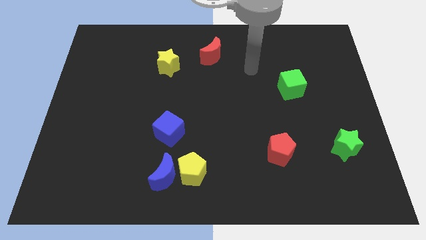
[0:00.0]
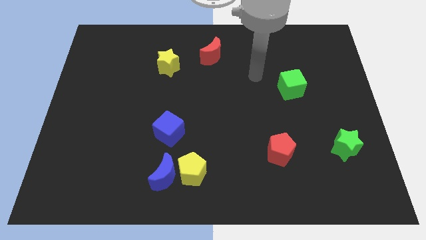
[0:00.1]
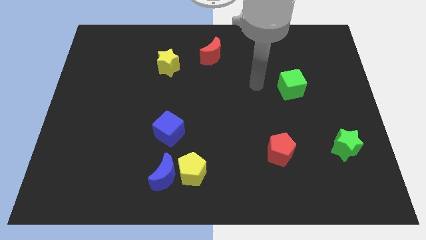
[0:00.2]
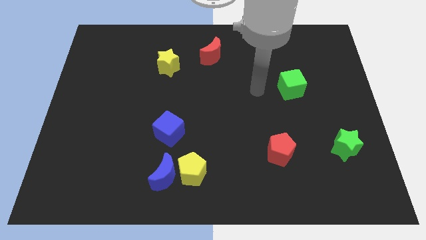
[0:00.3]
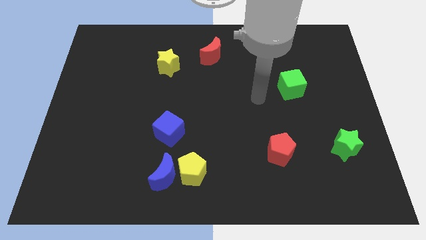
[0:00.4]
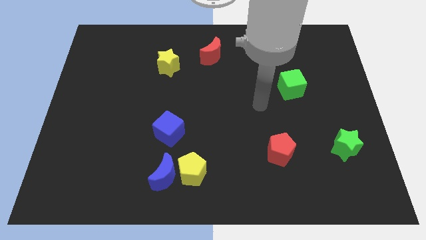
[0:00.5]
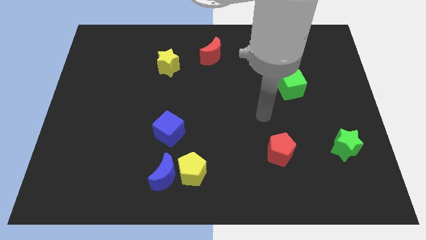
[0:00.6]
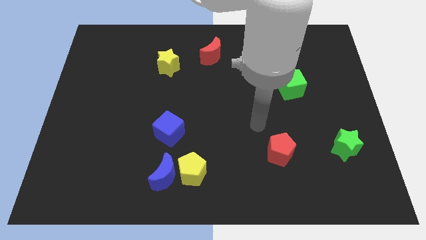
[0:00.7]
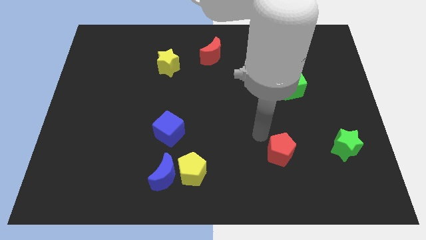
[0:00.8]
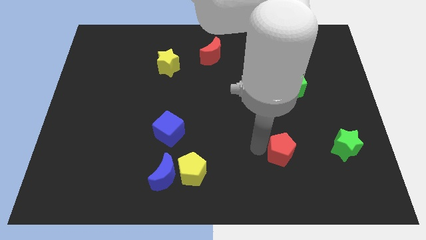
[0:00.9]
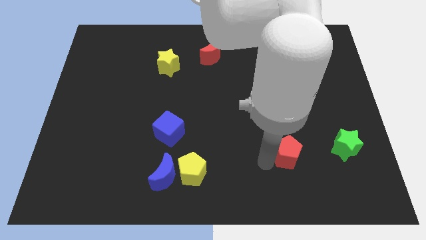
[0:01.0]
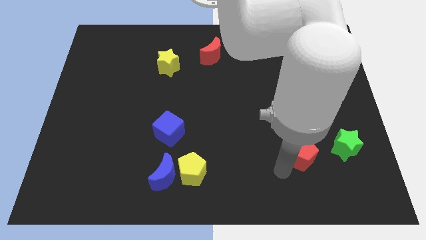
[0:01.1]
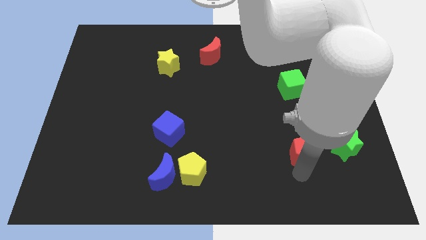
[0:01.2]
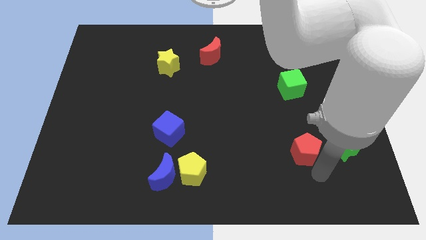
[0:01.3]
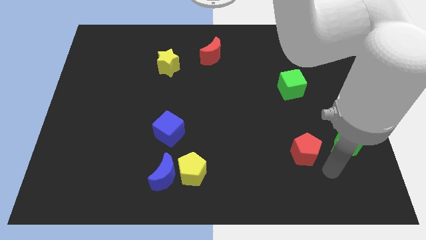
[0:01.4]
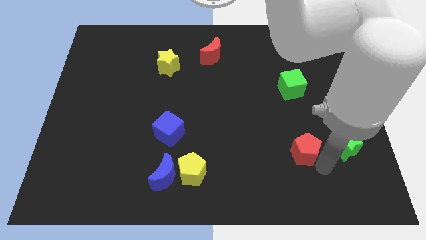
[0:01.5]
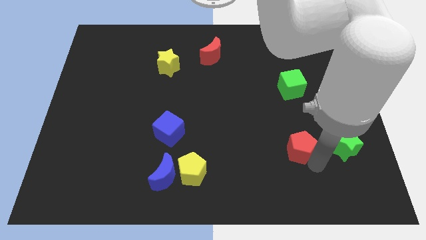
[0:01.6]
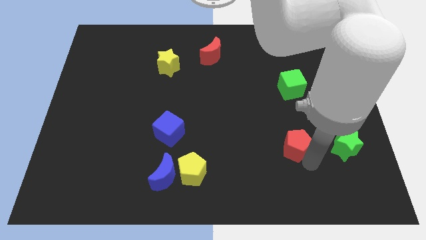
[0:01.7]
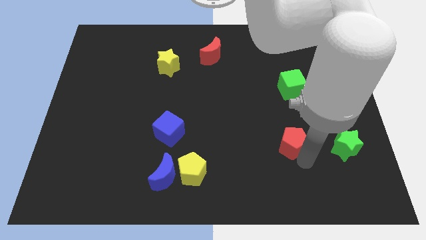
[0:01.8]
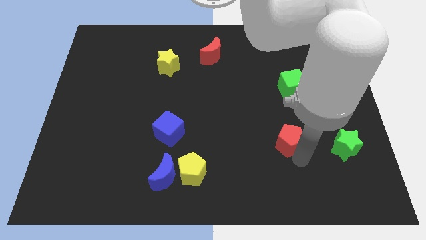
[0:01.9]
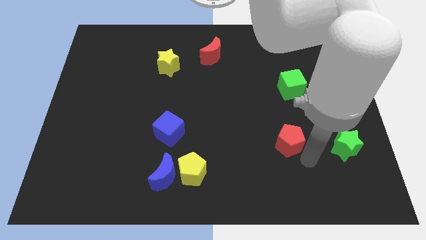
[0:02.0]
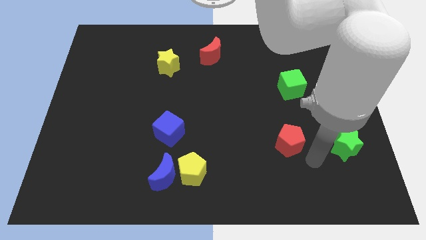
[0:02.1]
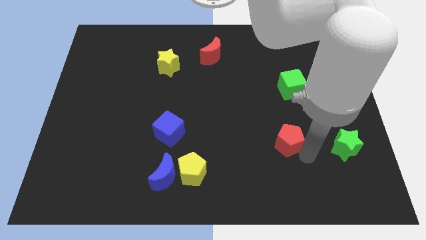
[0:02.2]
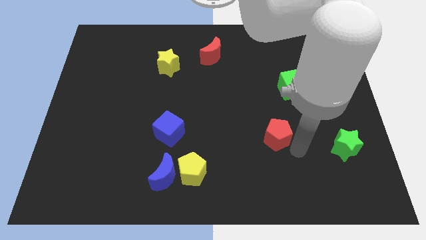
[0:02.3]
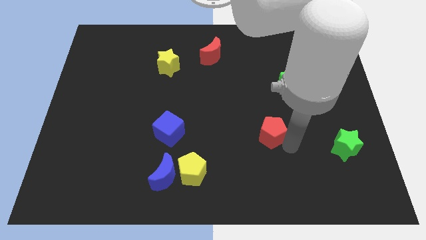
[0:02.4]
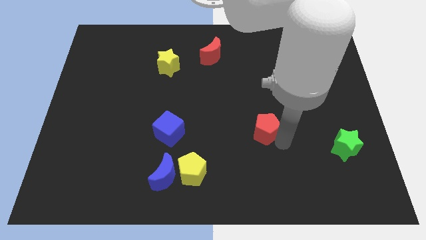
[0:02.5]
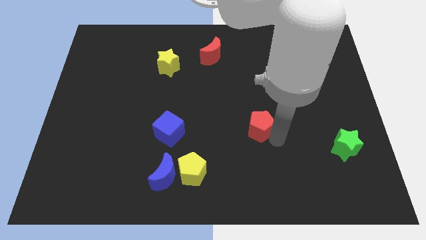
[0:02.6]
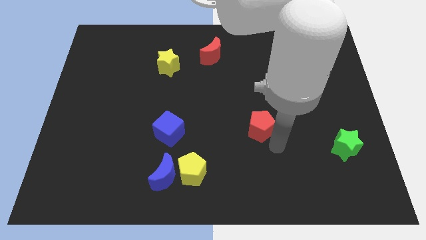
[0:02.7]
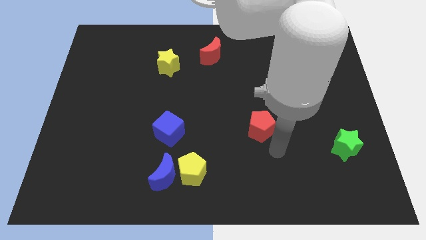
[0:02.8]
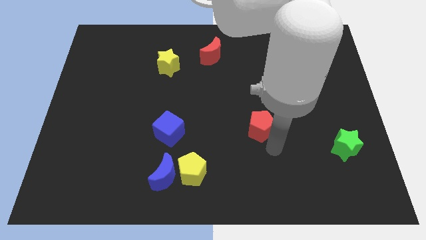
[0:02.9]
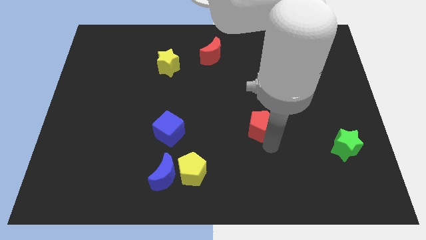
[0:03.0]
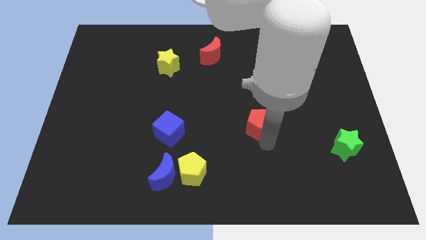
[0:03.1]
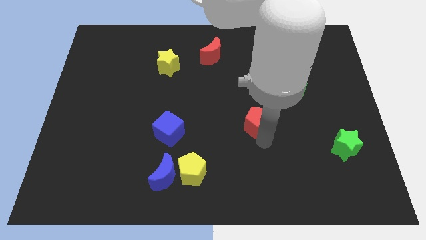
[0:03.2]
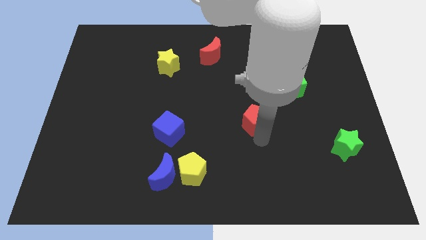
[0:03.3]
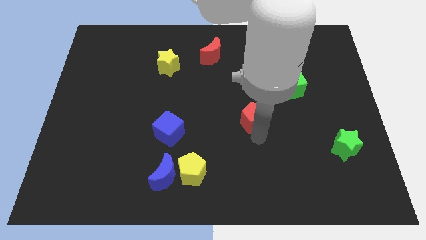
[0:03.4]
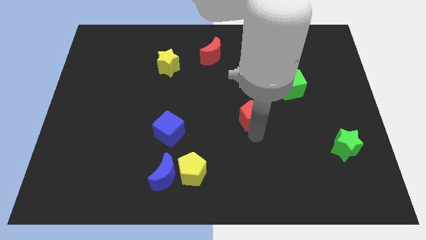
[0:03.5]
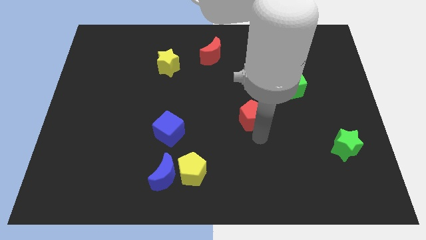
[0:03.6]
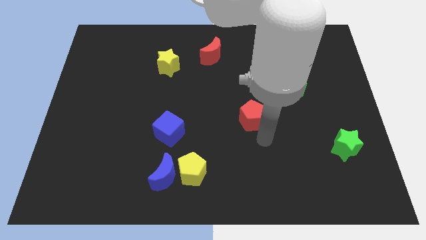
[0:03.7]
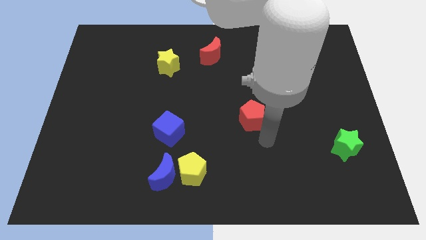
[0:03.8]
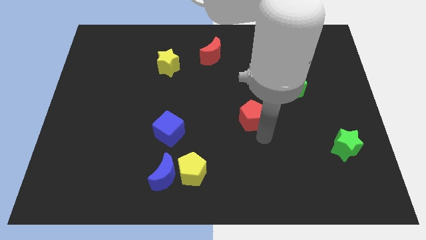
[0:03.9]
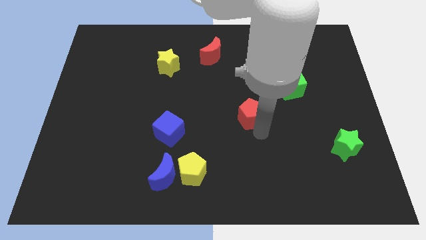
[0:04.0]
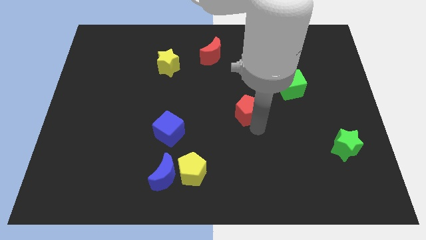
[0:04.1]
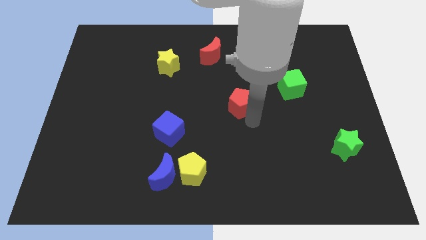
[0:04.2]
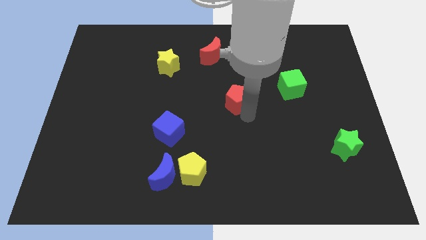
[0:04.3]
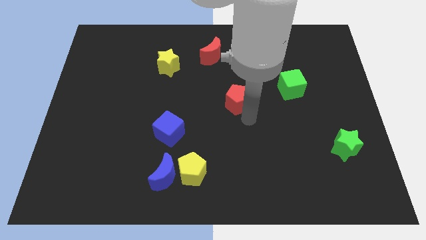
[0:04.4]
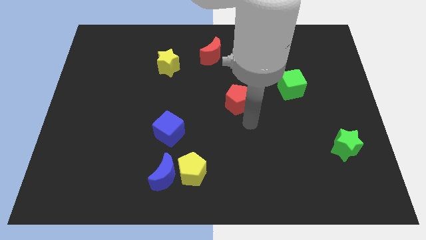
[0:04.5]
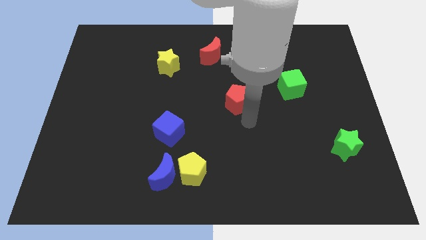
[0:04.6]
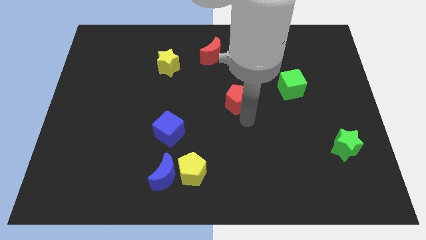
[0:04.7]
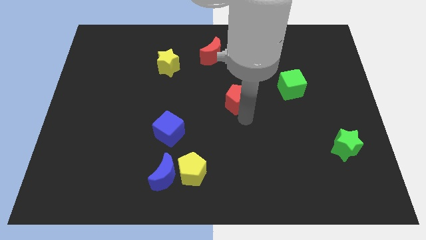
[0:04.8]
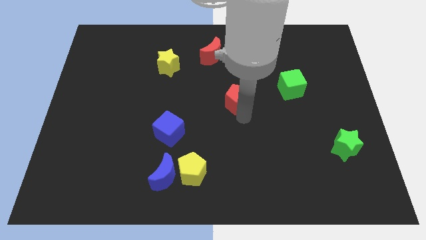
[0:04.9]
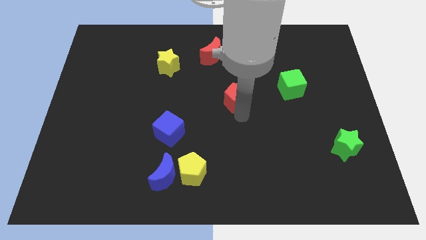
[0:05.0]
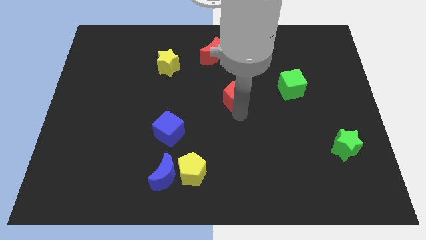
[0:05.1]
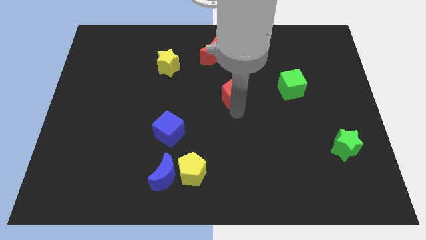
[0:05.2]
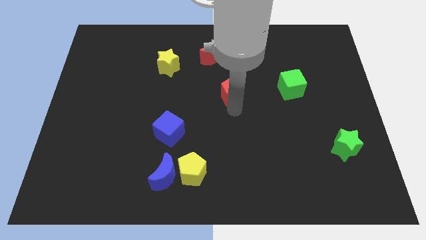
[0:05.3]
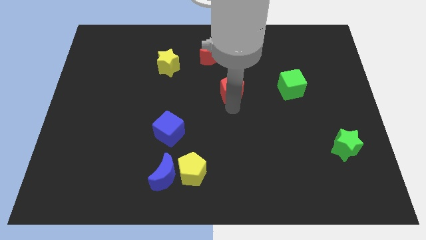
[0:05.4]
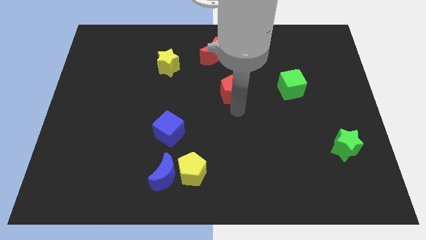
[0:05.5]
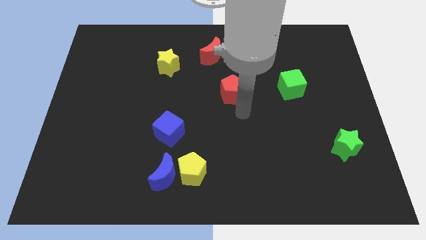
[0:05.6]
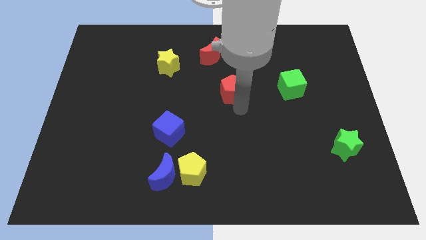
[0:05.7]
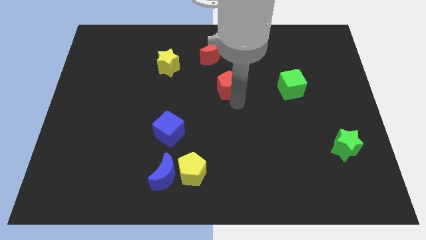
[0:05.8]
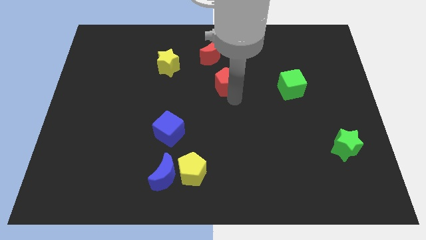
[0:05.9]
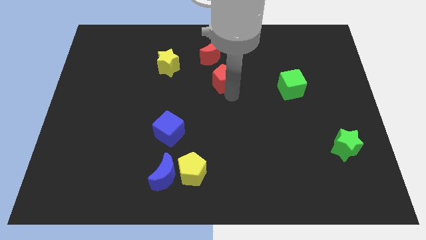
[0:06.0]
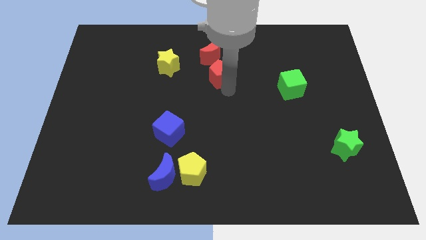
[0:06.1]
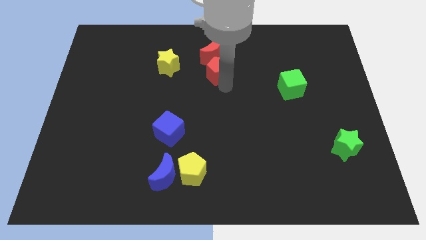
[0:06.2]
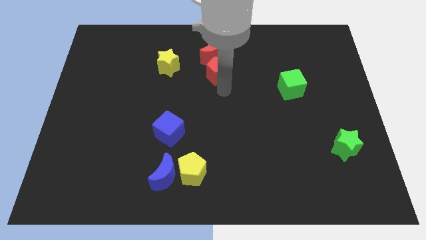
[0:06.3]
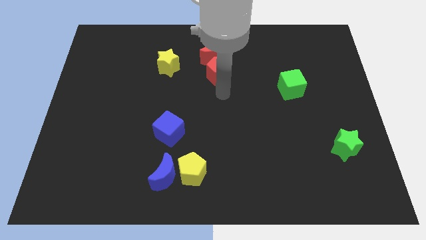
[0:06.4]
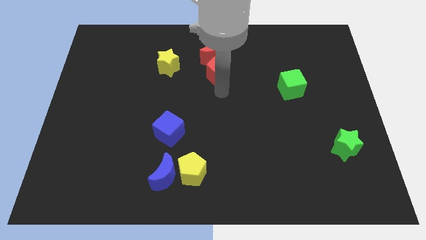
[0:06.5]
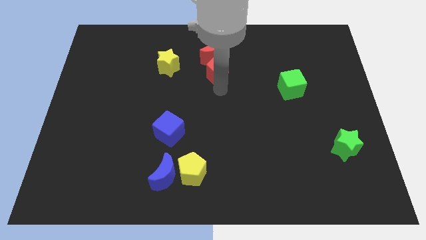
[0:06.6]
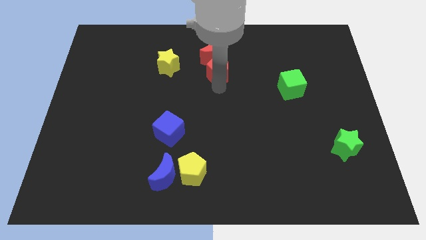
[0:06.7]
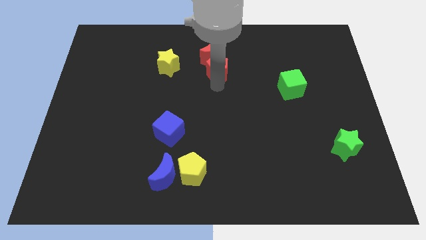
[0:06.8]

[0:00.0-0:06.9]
move the red pentagon to the red moon

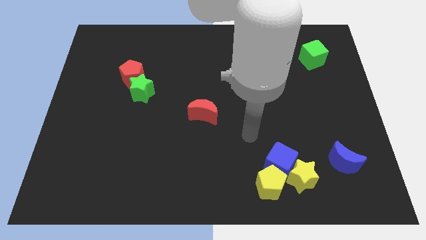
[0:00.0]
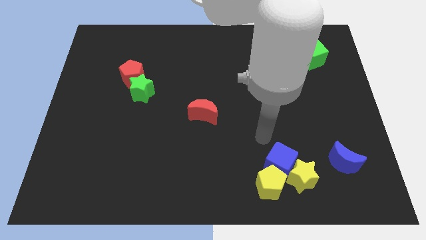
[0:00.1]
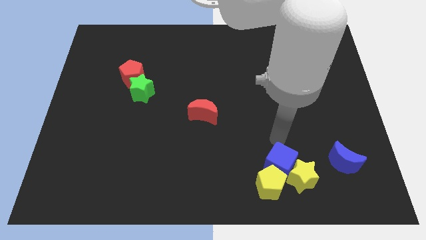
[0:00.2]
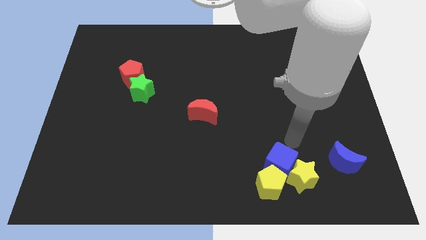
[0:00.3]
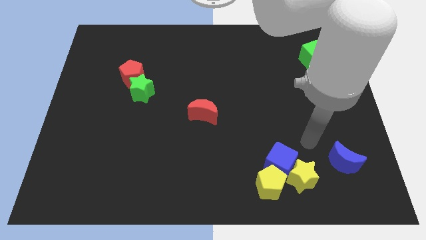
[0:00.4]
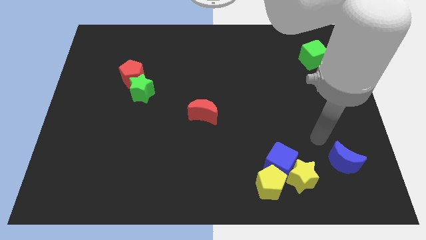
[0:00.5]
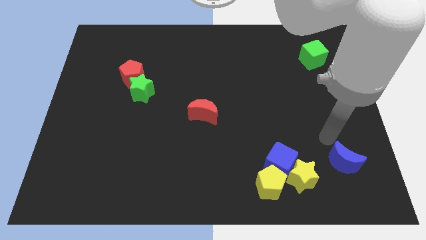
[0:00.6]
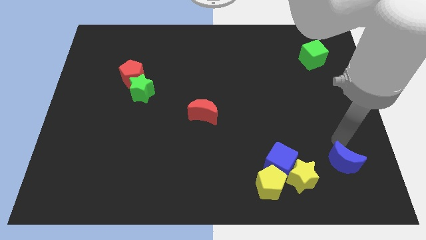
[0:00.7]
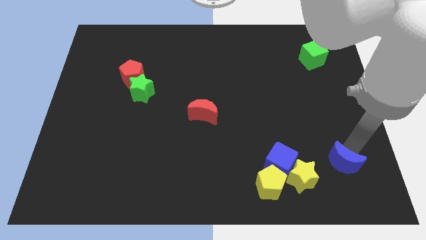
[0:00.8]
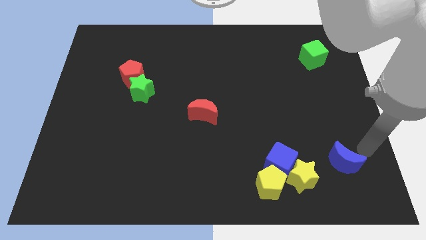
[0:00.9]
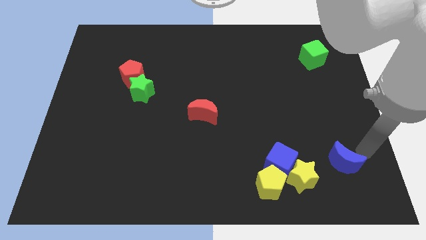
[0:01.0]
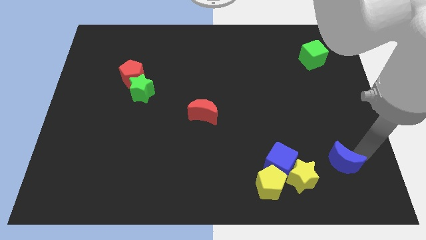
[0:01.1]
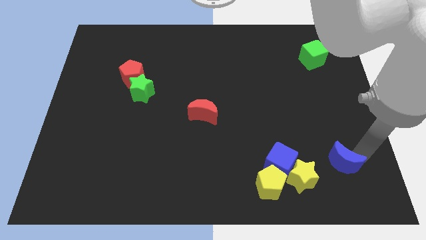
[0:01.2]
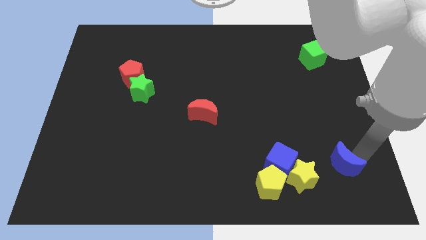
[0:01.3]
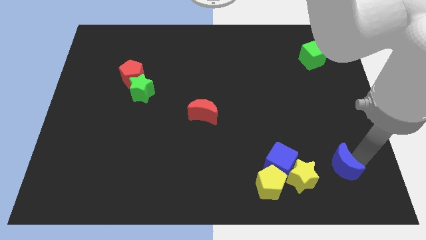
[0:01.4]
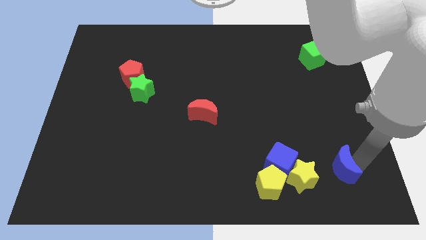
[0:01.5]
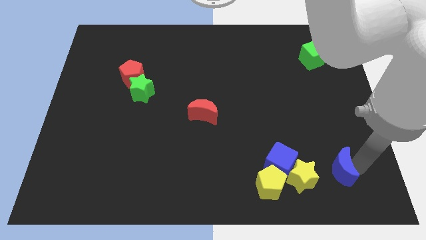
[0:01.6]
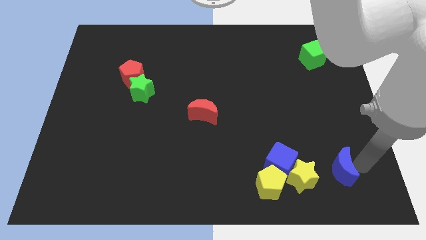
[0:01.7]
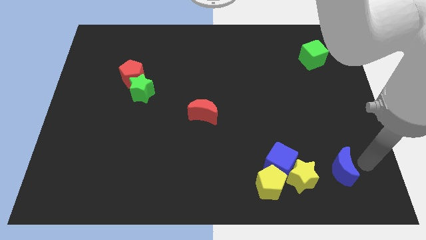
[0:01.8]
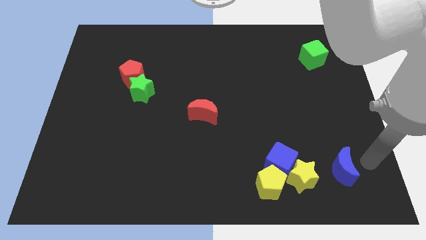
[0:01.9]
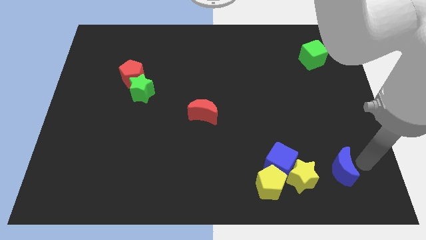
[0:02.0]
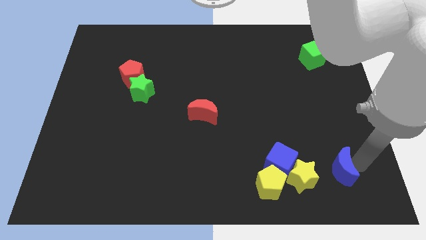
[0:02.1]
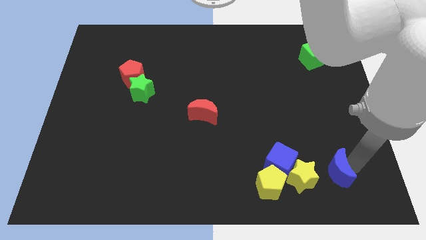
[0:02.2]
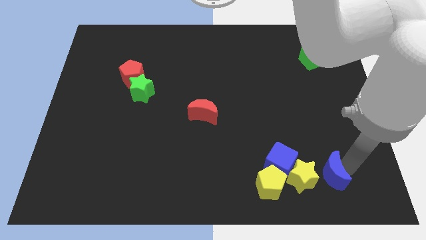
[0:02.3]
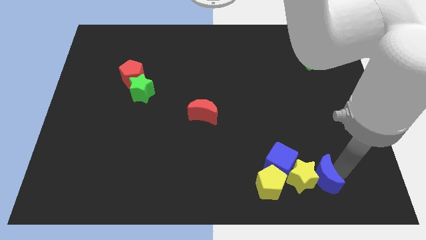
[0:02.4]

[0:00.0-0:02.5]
slide the blue moon next to the yellow star
